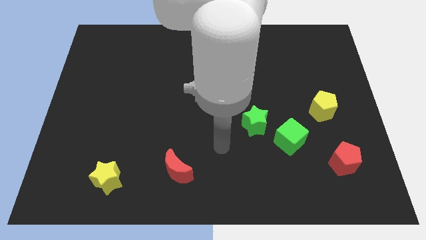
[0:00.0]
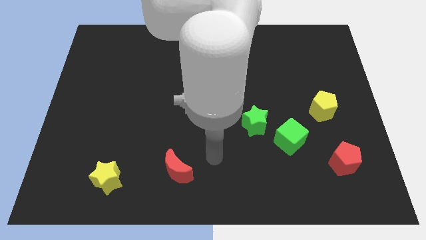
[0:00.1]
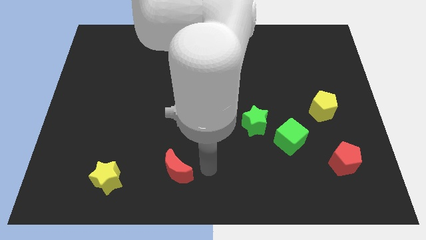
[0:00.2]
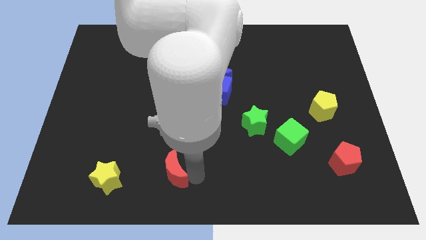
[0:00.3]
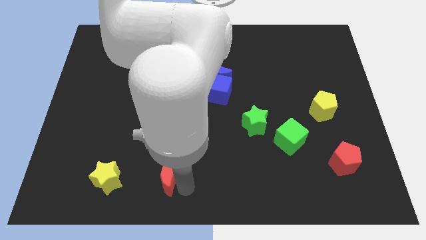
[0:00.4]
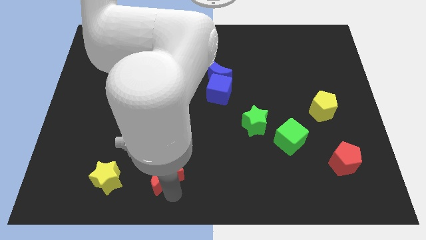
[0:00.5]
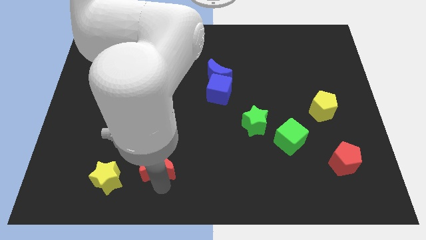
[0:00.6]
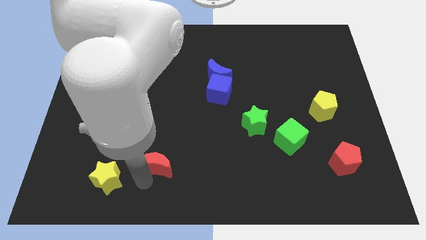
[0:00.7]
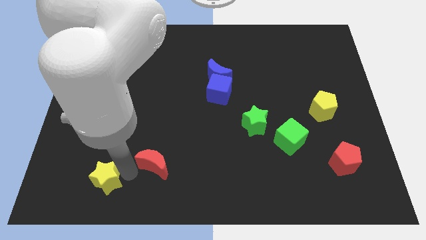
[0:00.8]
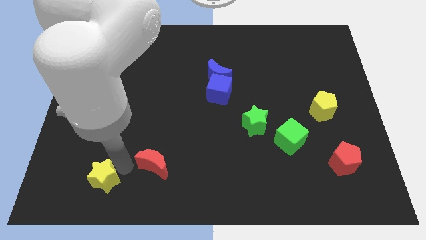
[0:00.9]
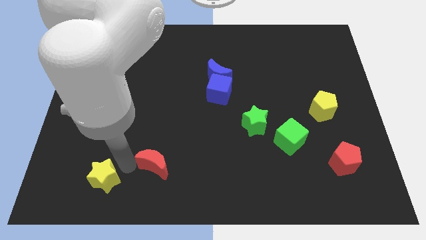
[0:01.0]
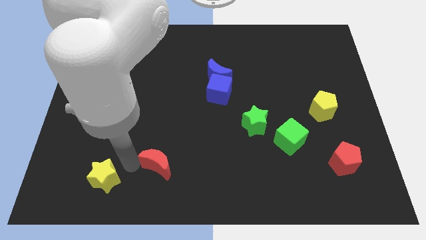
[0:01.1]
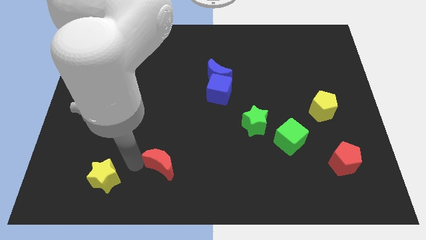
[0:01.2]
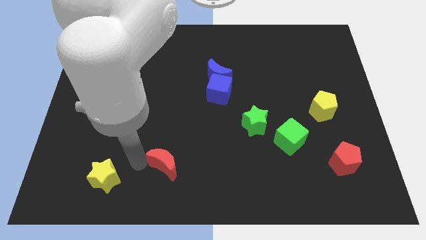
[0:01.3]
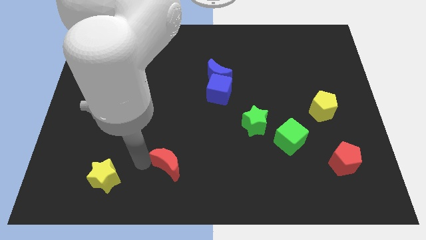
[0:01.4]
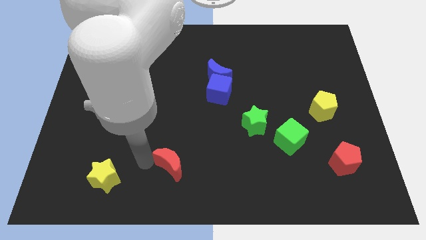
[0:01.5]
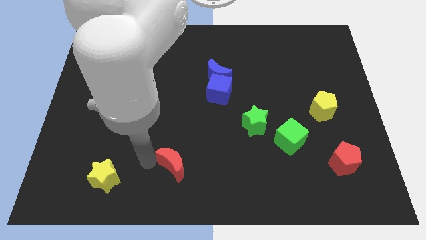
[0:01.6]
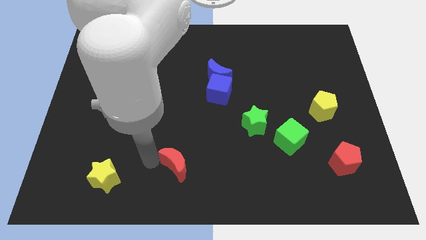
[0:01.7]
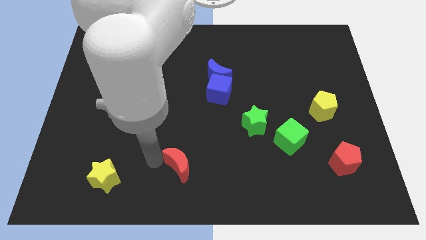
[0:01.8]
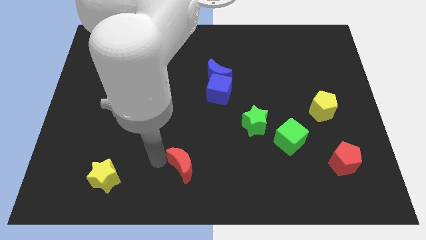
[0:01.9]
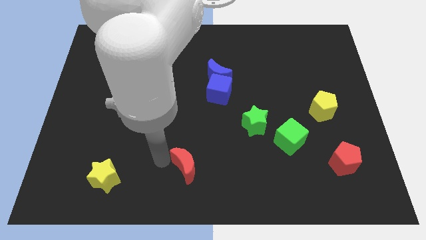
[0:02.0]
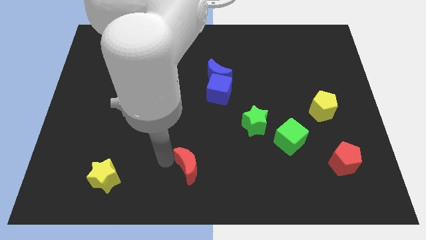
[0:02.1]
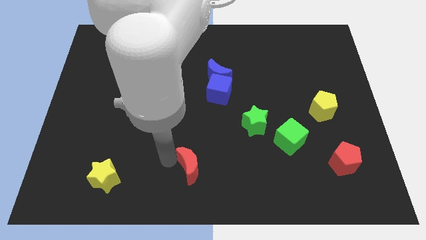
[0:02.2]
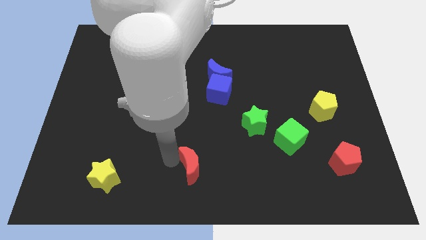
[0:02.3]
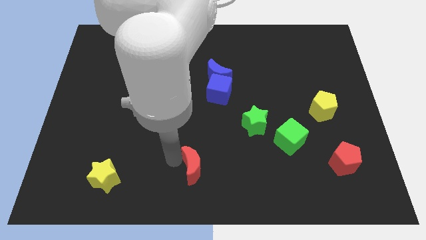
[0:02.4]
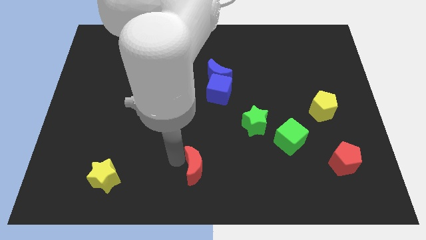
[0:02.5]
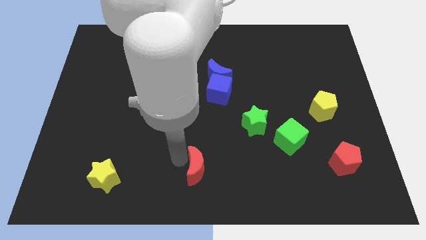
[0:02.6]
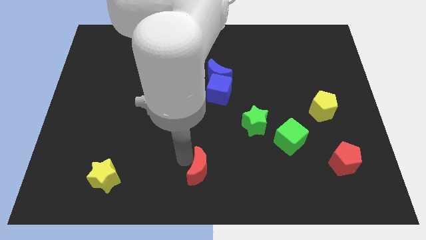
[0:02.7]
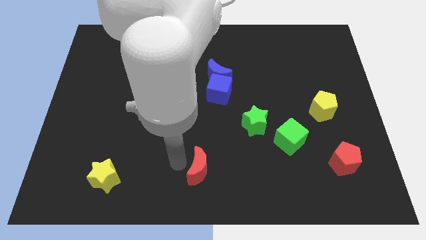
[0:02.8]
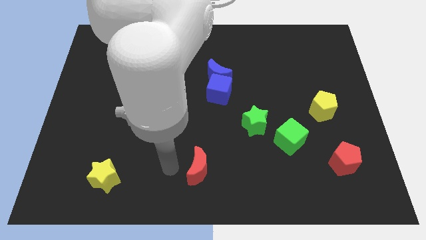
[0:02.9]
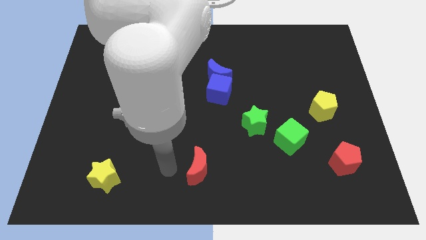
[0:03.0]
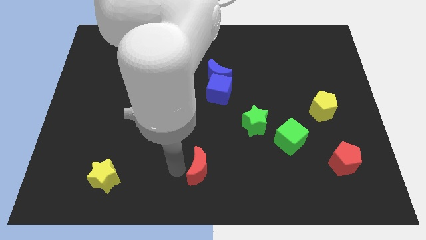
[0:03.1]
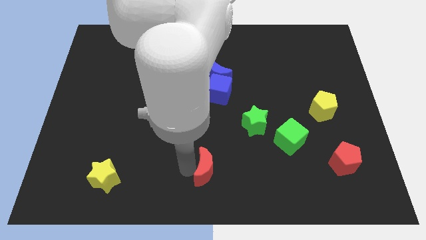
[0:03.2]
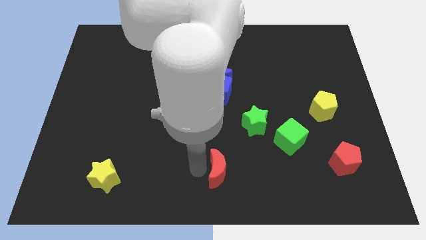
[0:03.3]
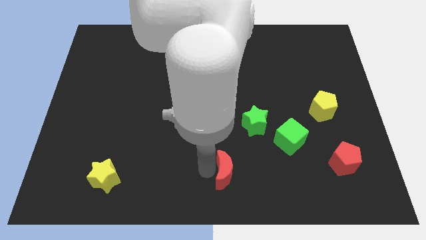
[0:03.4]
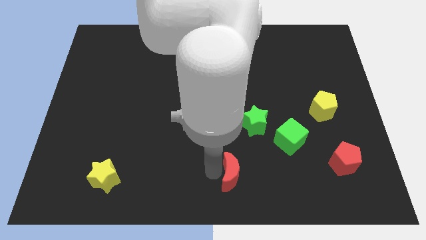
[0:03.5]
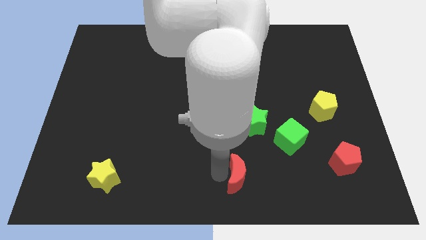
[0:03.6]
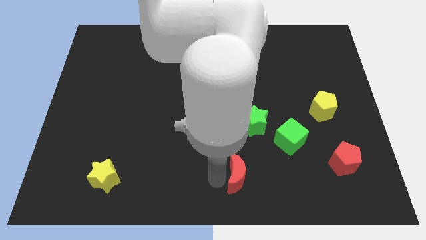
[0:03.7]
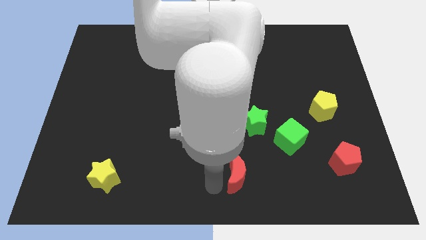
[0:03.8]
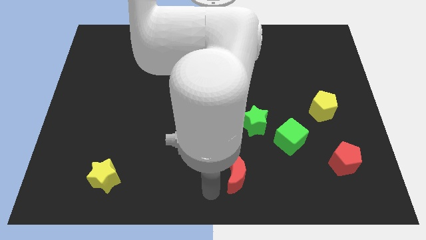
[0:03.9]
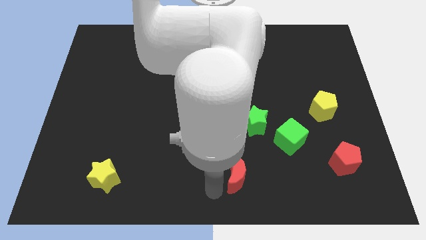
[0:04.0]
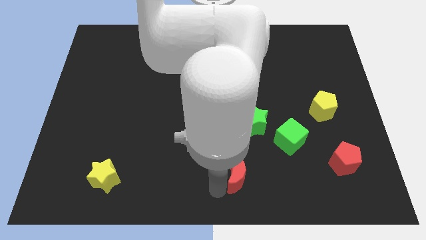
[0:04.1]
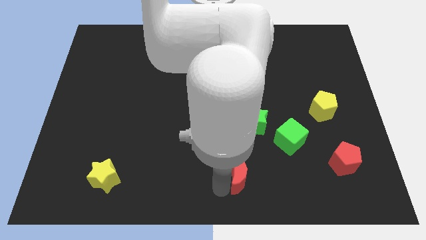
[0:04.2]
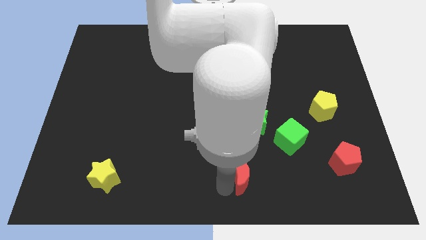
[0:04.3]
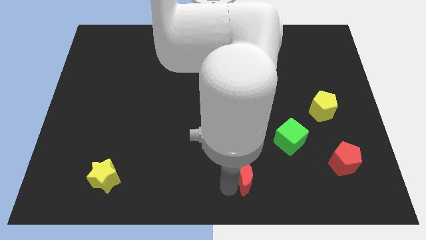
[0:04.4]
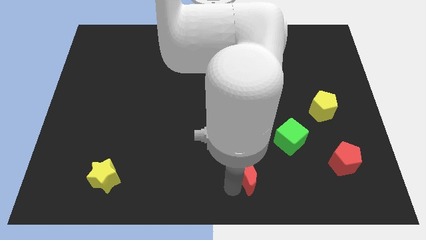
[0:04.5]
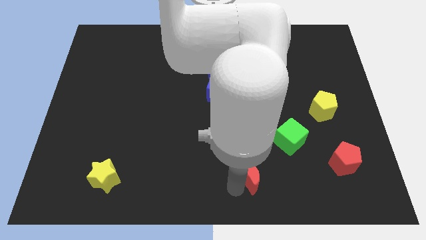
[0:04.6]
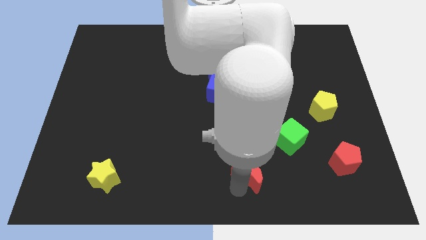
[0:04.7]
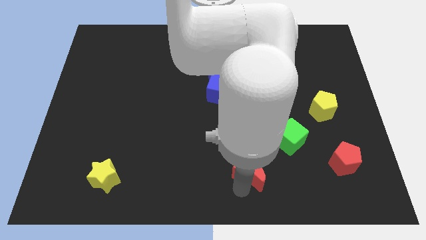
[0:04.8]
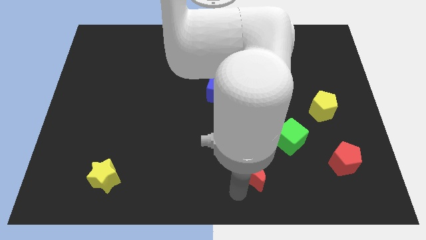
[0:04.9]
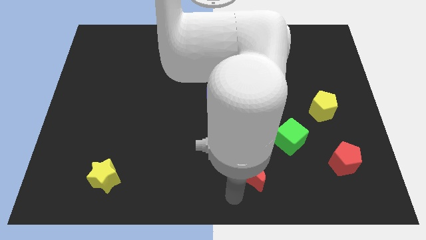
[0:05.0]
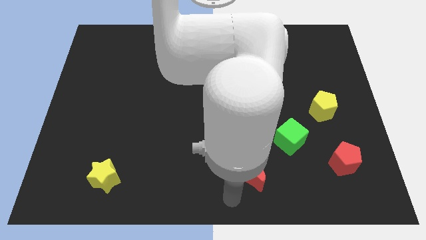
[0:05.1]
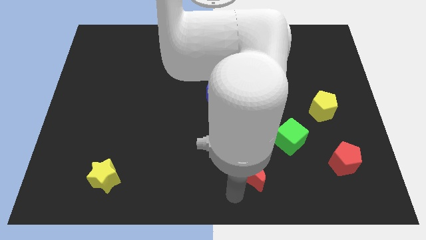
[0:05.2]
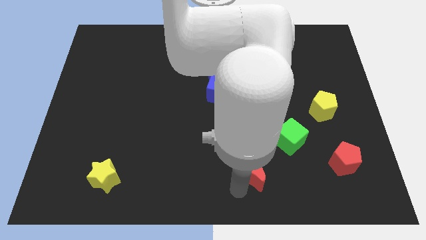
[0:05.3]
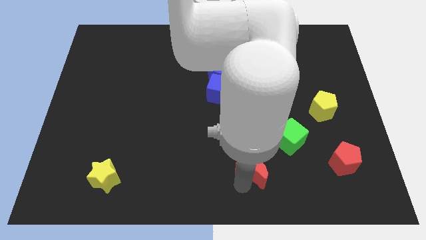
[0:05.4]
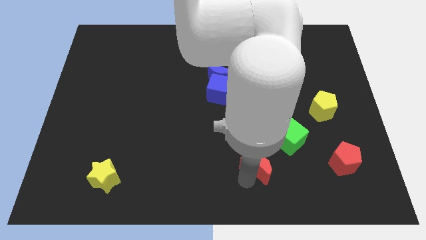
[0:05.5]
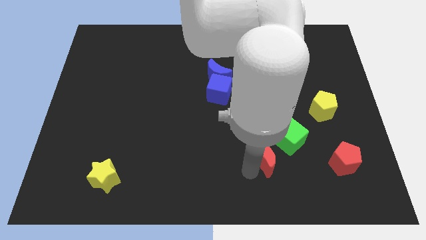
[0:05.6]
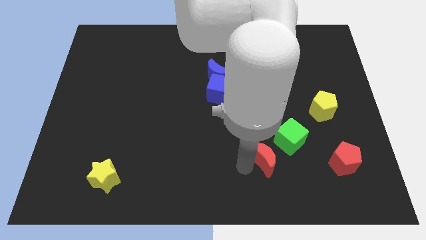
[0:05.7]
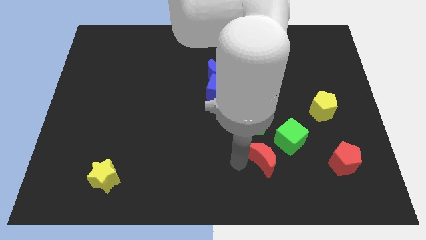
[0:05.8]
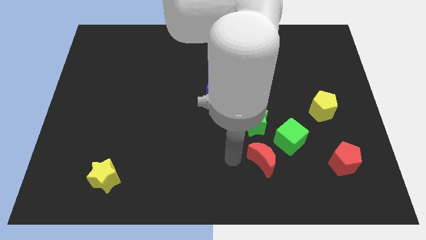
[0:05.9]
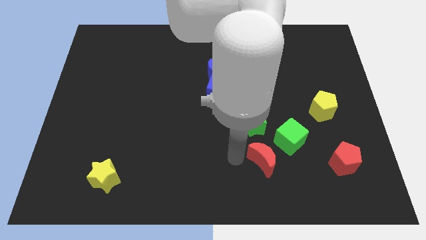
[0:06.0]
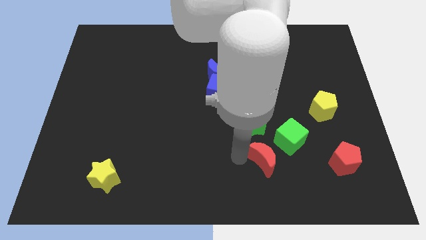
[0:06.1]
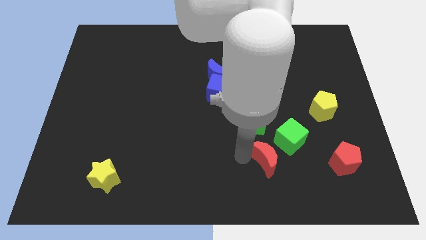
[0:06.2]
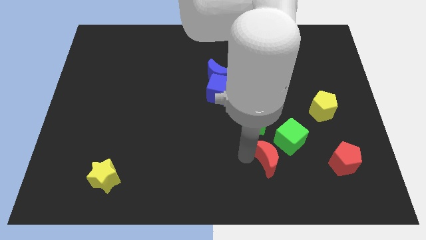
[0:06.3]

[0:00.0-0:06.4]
slide the red moon just left of the red pentagon

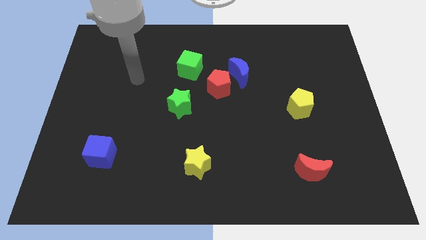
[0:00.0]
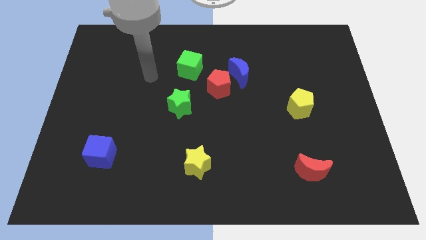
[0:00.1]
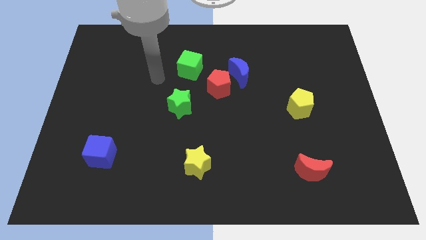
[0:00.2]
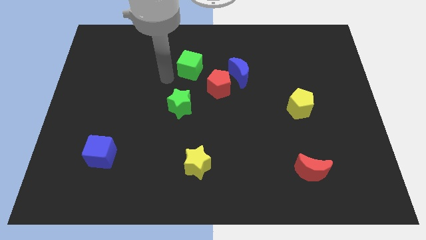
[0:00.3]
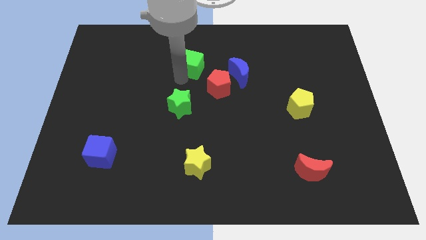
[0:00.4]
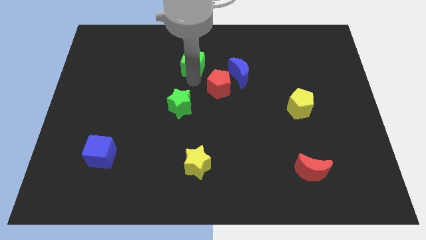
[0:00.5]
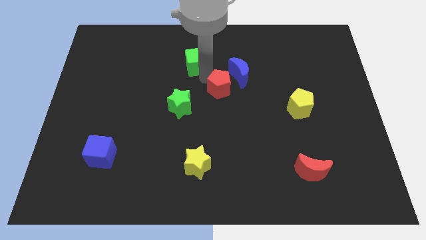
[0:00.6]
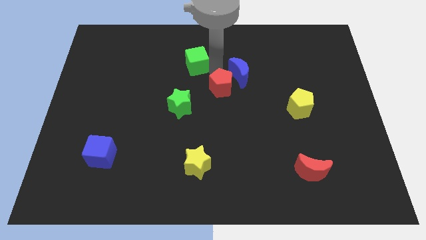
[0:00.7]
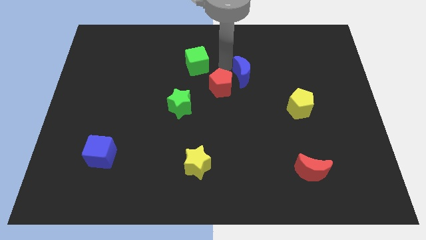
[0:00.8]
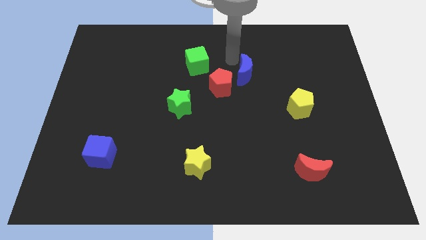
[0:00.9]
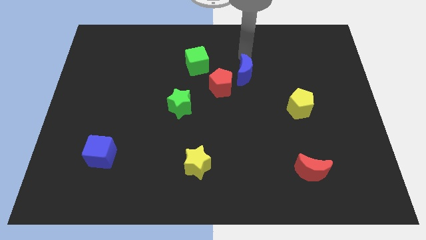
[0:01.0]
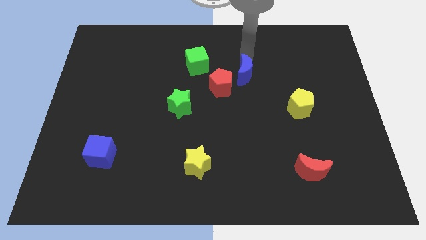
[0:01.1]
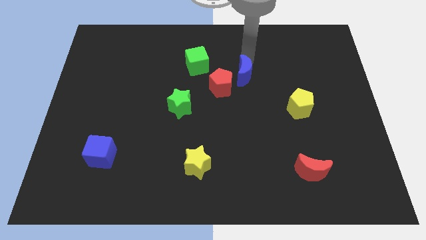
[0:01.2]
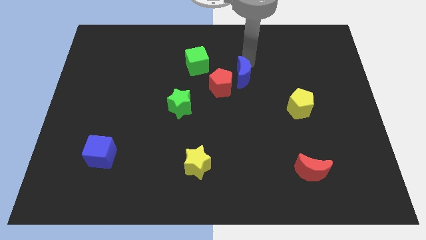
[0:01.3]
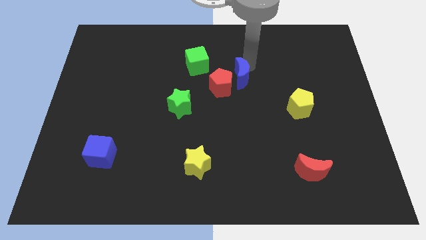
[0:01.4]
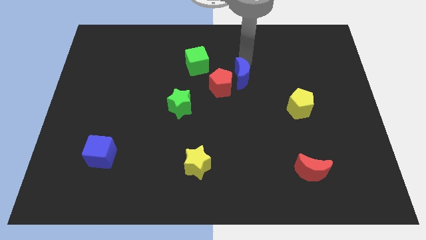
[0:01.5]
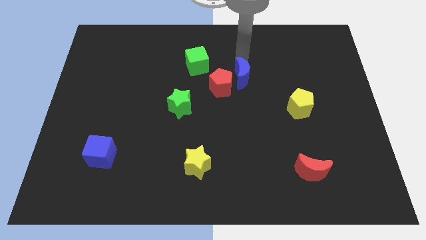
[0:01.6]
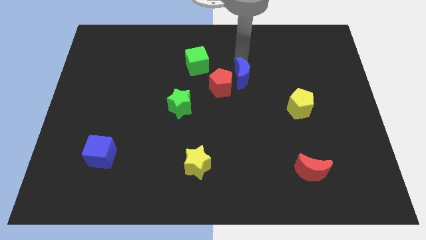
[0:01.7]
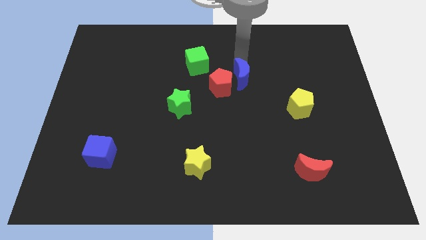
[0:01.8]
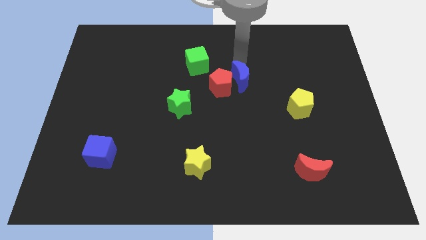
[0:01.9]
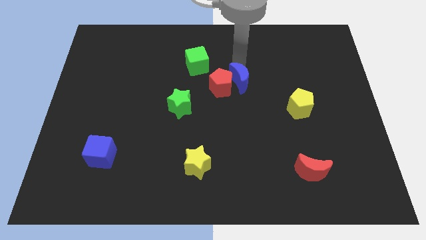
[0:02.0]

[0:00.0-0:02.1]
move the blue moon to the bottom right of the red pentagon
